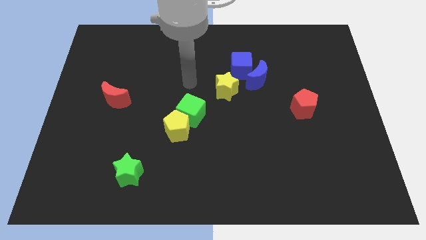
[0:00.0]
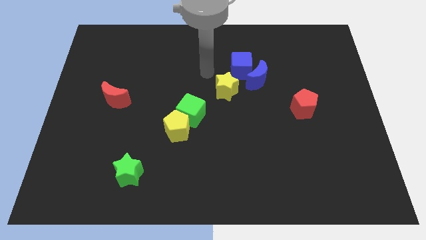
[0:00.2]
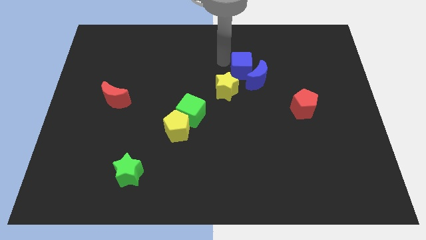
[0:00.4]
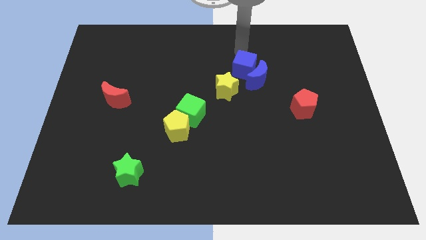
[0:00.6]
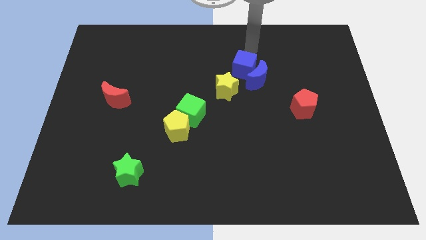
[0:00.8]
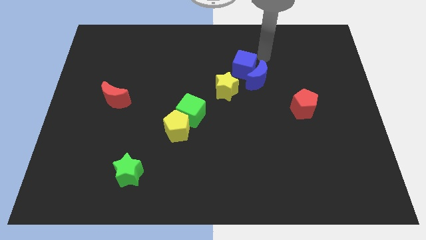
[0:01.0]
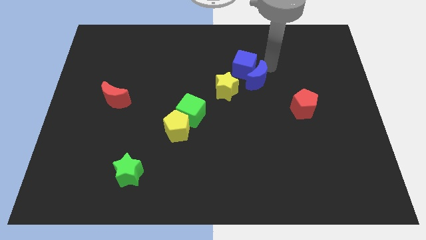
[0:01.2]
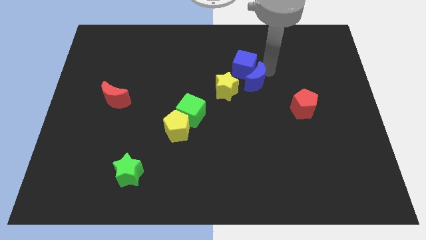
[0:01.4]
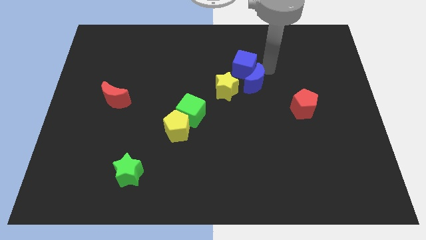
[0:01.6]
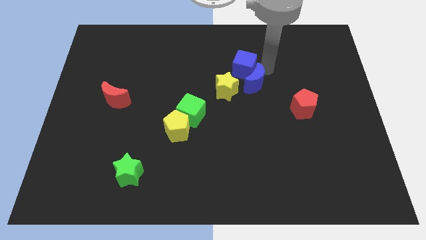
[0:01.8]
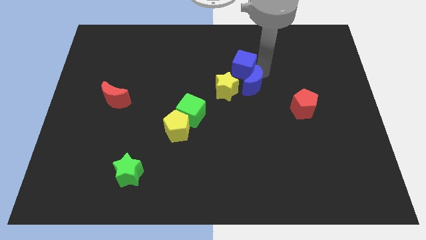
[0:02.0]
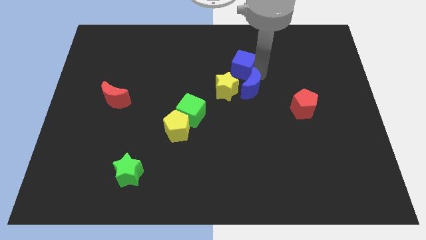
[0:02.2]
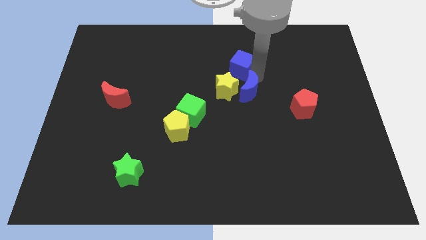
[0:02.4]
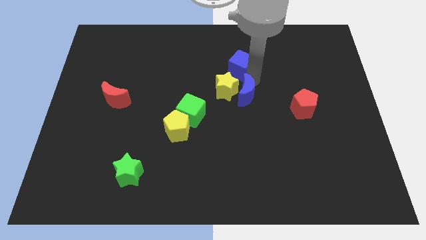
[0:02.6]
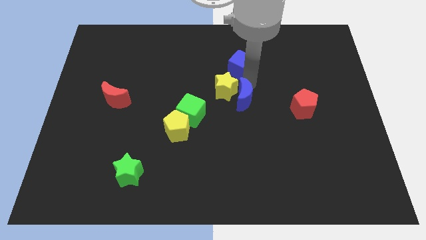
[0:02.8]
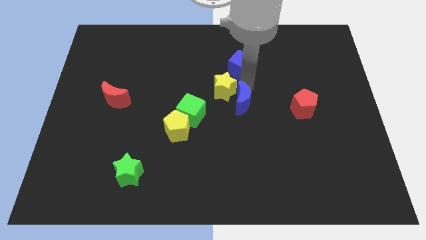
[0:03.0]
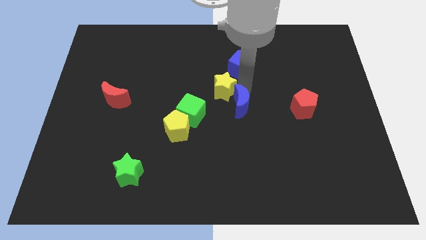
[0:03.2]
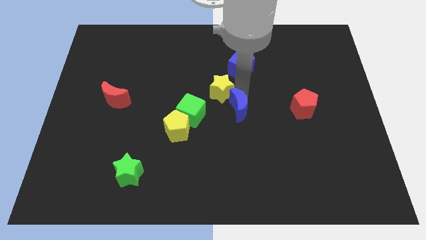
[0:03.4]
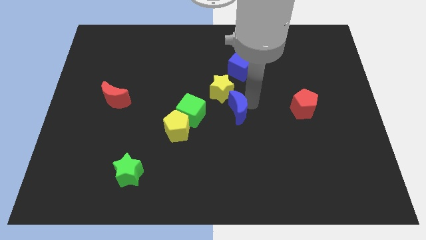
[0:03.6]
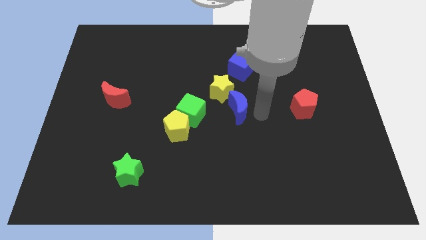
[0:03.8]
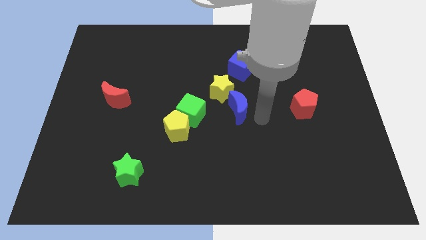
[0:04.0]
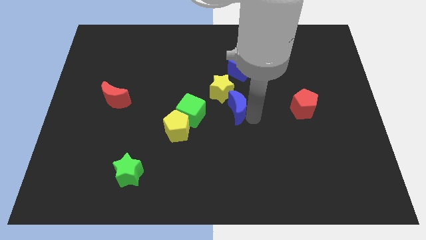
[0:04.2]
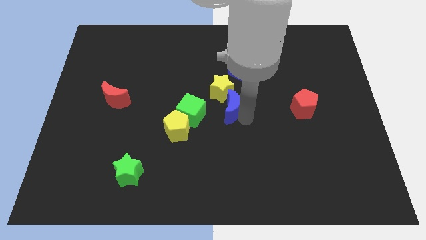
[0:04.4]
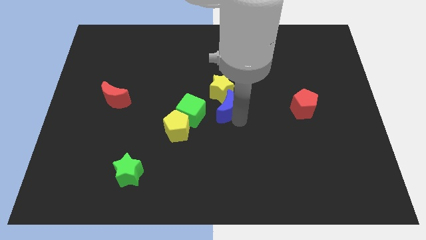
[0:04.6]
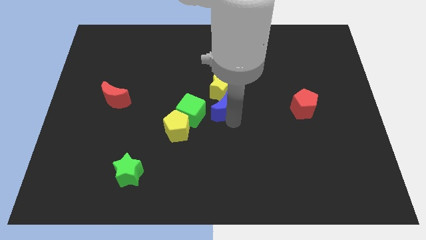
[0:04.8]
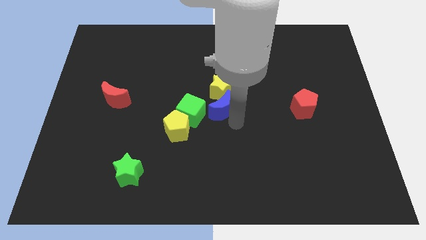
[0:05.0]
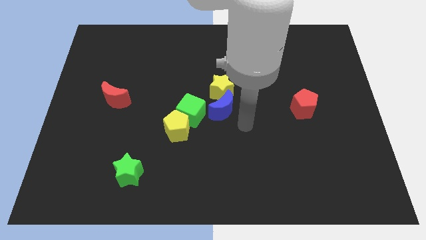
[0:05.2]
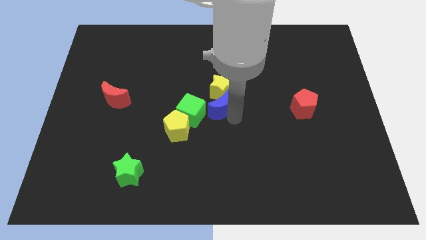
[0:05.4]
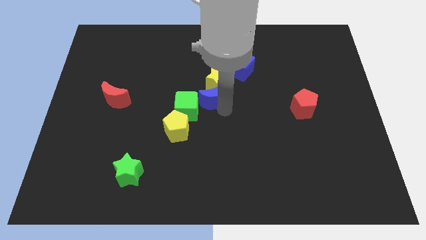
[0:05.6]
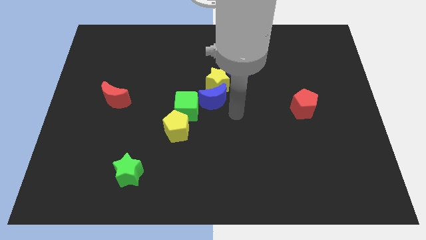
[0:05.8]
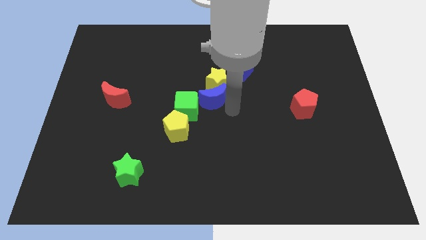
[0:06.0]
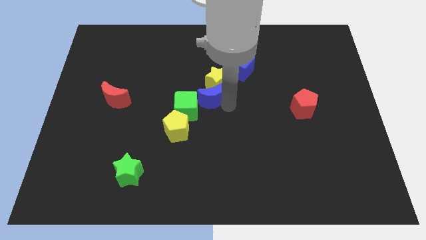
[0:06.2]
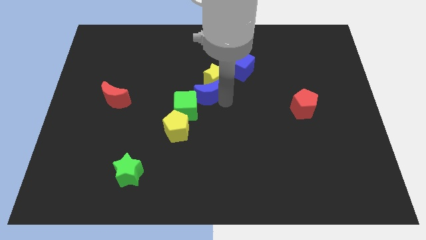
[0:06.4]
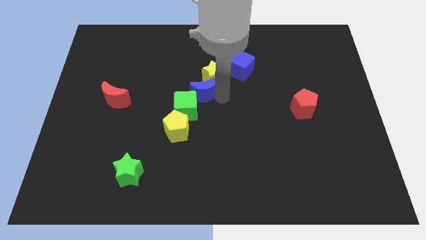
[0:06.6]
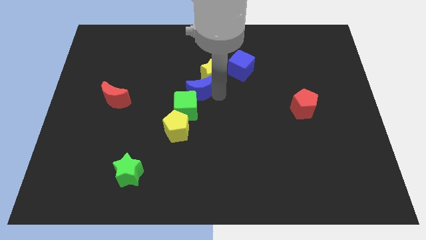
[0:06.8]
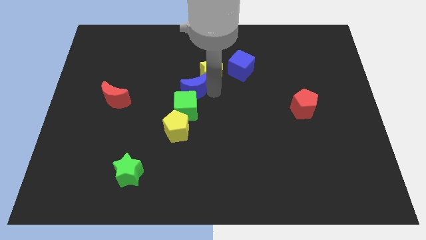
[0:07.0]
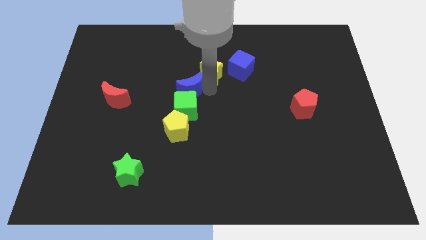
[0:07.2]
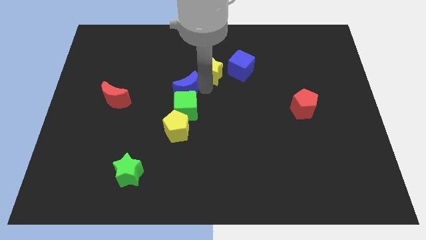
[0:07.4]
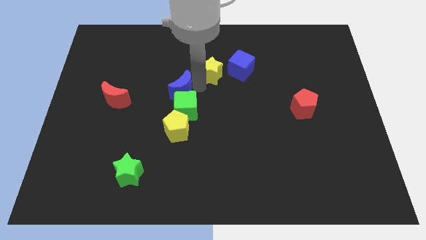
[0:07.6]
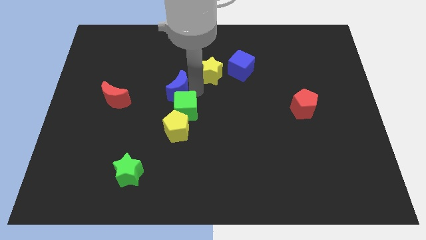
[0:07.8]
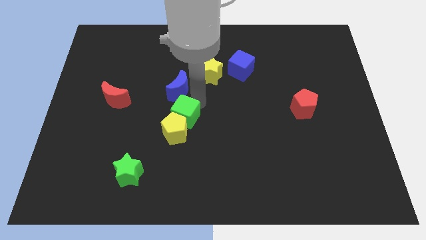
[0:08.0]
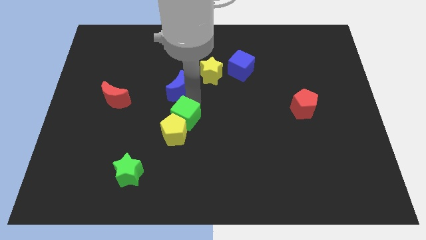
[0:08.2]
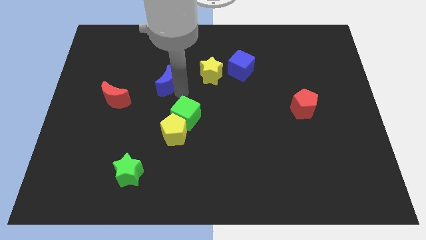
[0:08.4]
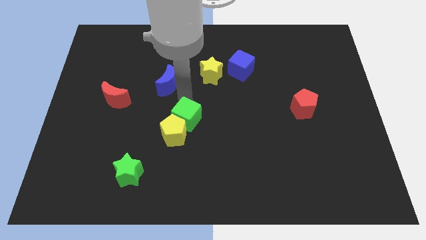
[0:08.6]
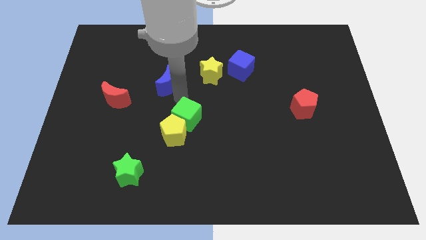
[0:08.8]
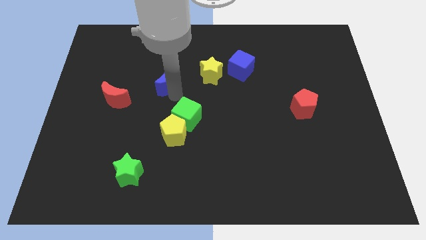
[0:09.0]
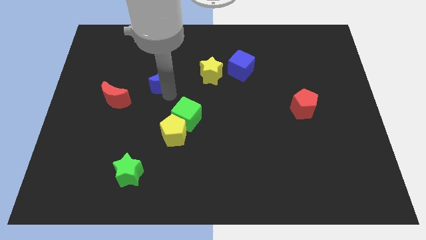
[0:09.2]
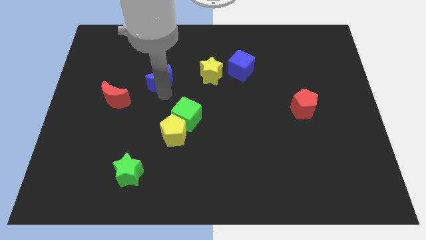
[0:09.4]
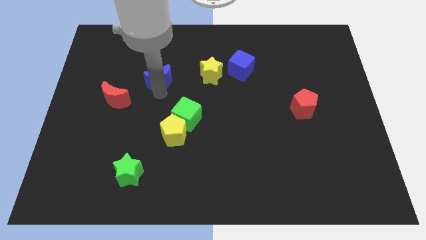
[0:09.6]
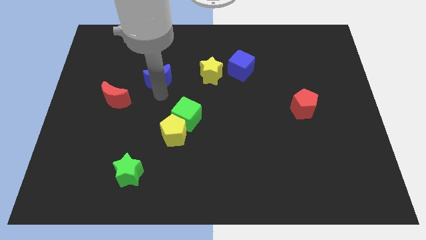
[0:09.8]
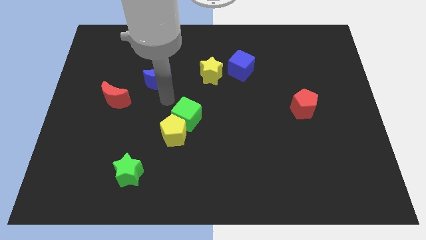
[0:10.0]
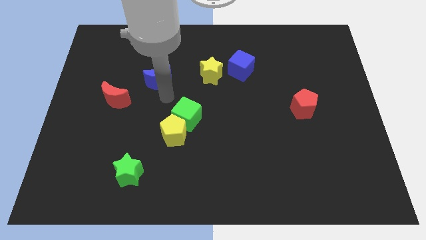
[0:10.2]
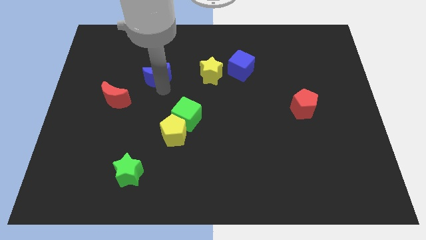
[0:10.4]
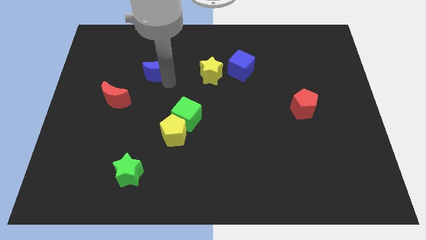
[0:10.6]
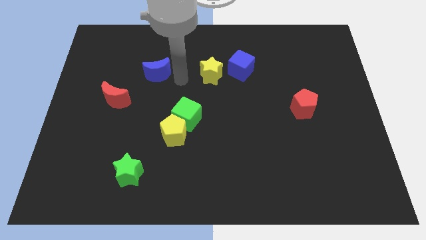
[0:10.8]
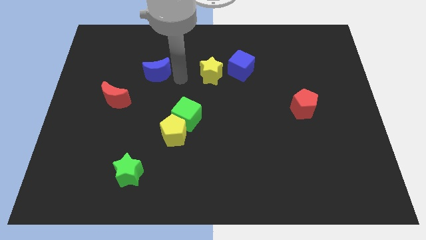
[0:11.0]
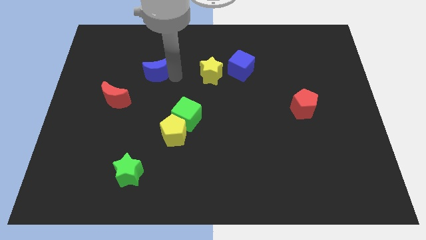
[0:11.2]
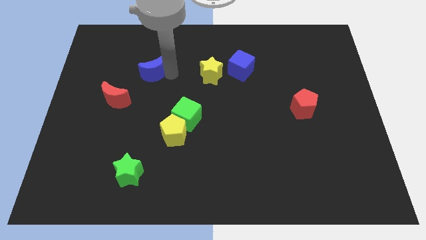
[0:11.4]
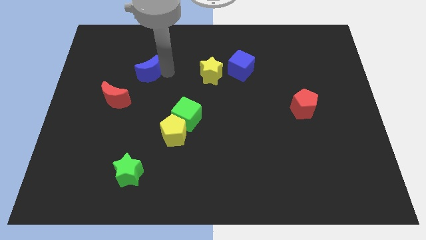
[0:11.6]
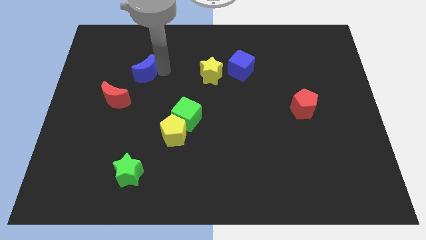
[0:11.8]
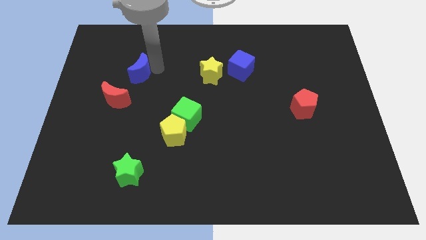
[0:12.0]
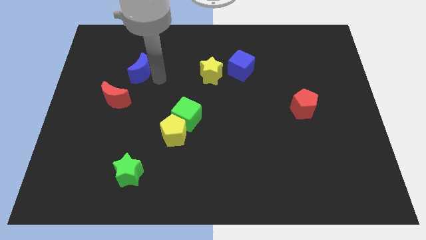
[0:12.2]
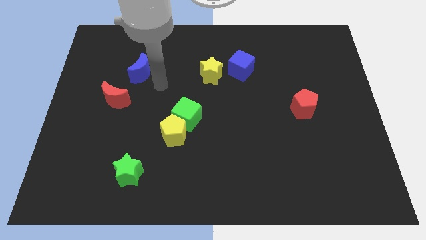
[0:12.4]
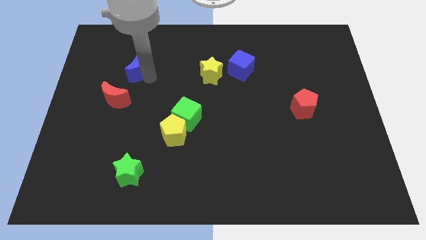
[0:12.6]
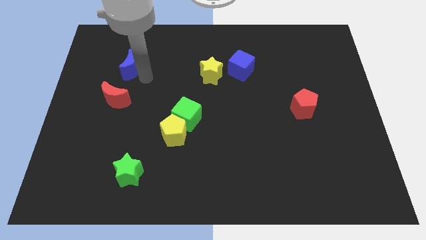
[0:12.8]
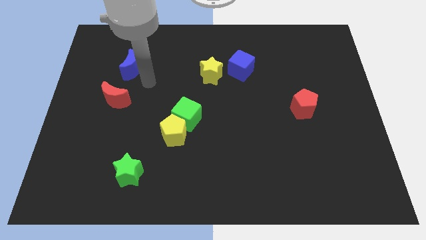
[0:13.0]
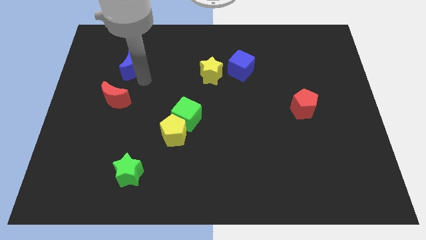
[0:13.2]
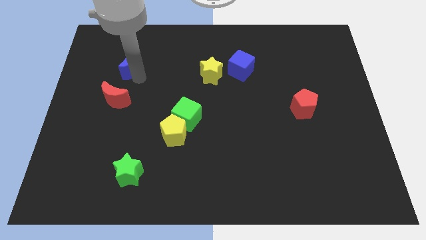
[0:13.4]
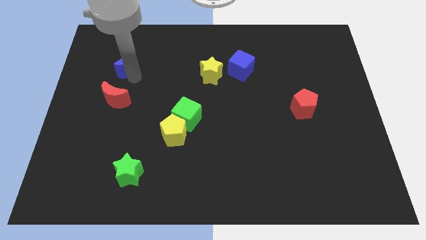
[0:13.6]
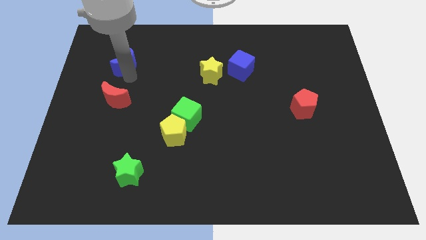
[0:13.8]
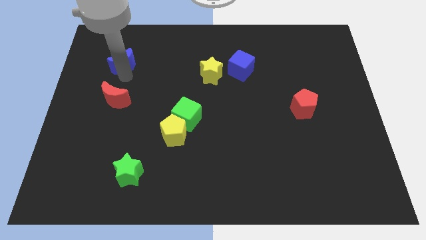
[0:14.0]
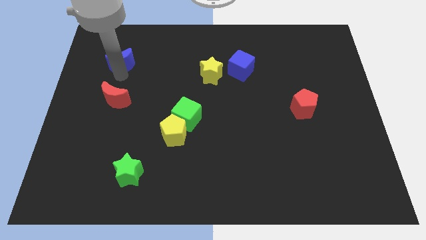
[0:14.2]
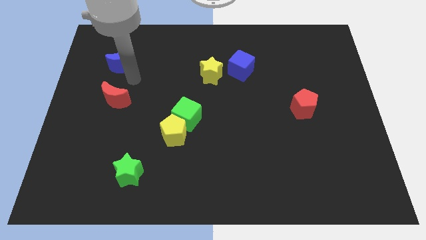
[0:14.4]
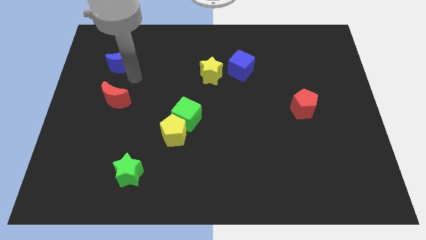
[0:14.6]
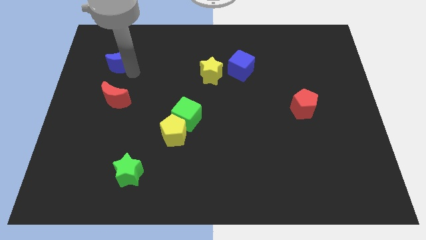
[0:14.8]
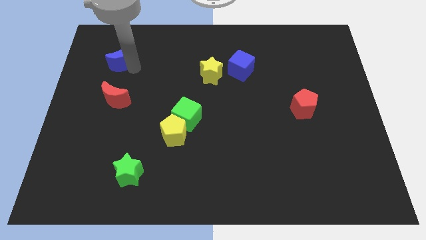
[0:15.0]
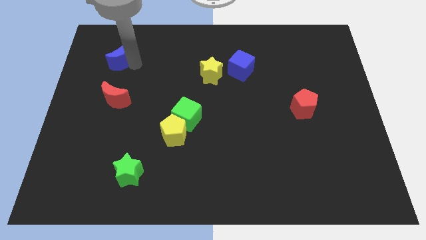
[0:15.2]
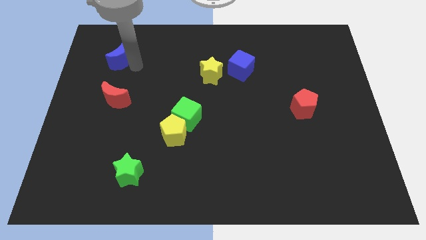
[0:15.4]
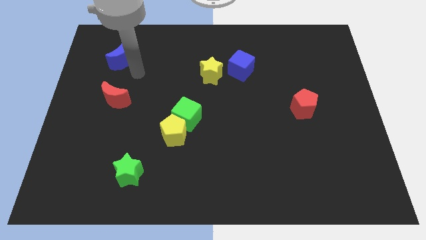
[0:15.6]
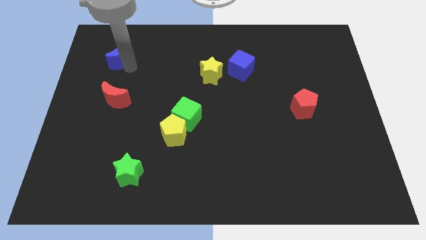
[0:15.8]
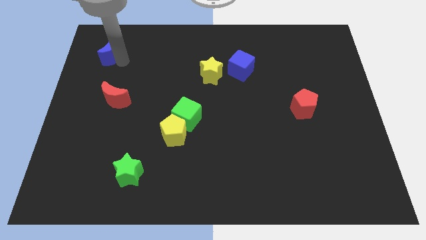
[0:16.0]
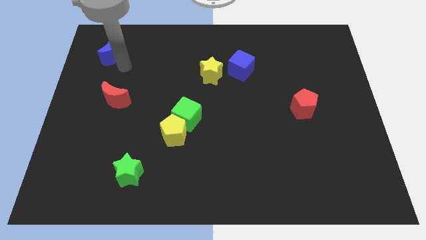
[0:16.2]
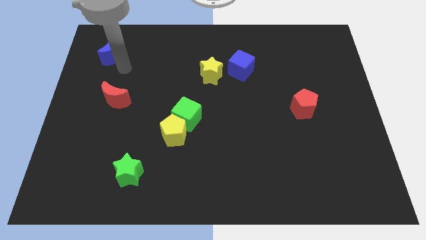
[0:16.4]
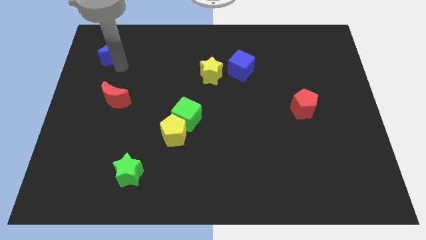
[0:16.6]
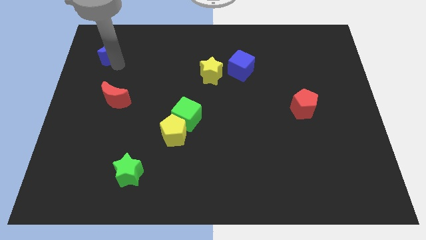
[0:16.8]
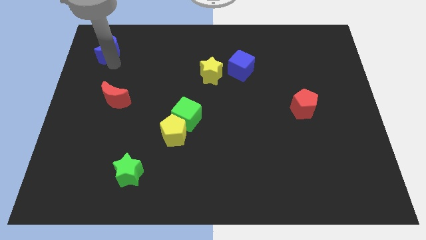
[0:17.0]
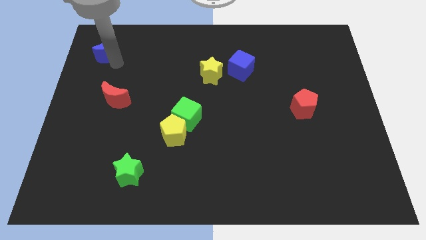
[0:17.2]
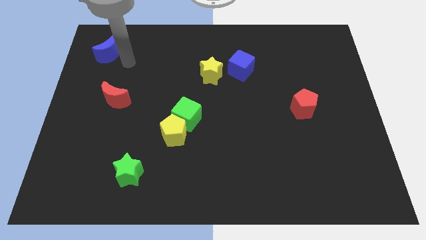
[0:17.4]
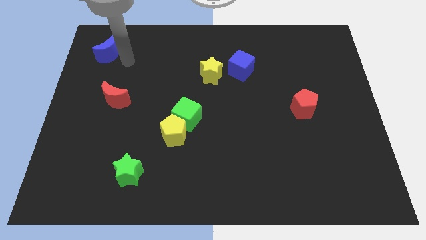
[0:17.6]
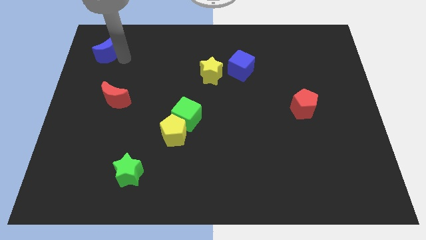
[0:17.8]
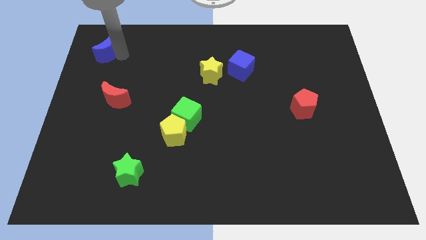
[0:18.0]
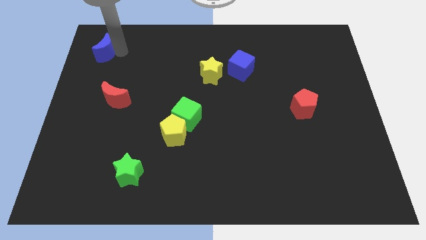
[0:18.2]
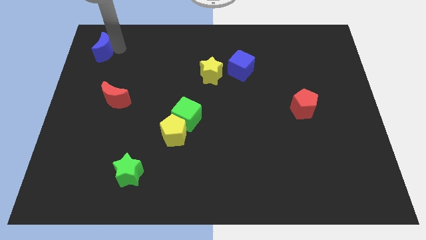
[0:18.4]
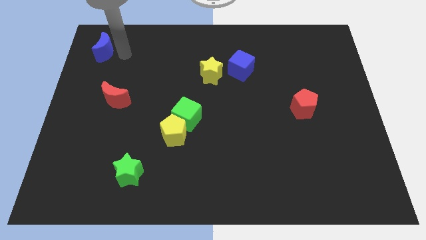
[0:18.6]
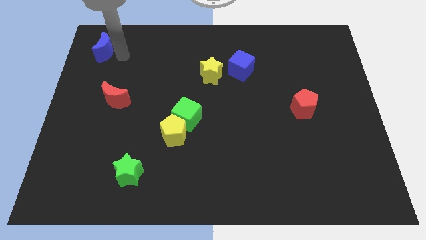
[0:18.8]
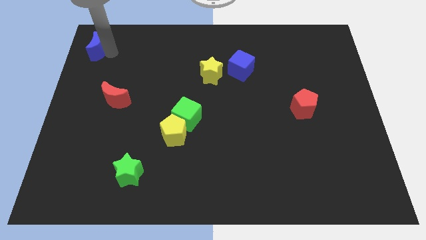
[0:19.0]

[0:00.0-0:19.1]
slide the blue moon to the top left corner
